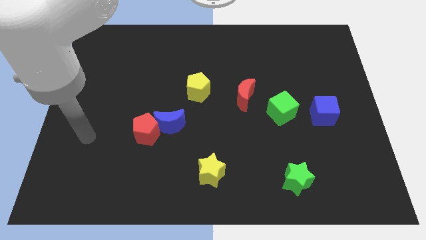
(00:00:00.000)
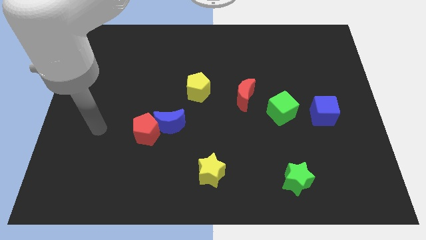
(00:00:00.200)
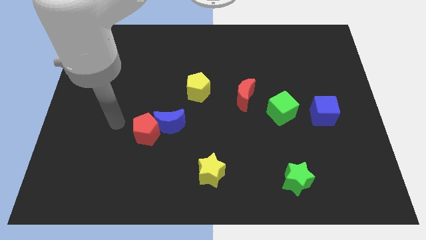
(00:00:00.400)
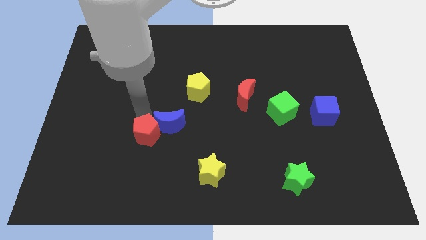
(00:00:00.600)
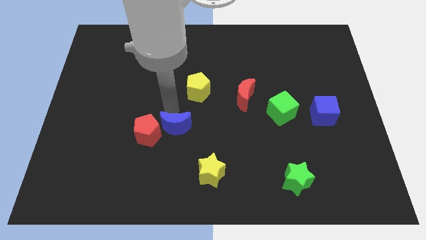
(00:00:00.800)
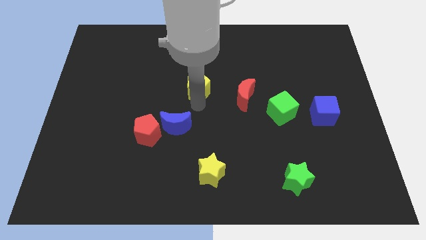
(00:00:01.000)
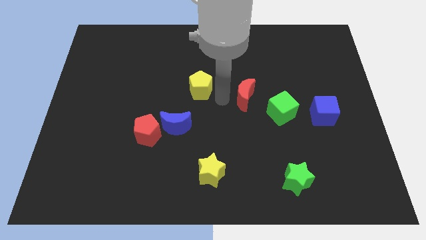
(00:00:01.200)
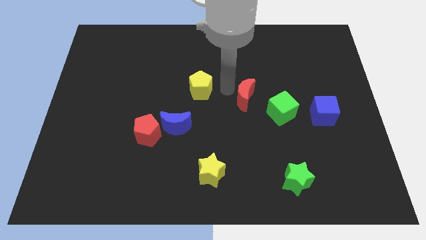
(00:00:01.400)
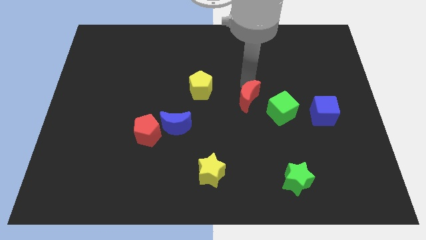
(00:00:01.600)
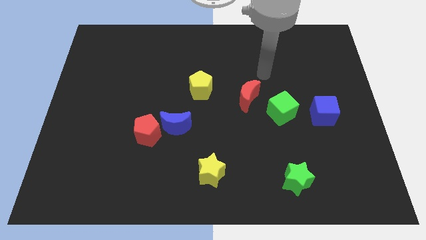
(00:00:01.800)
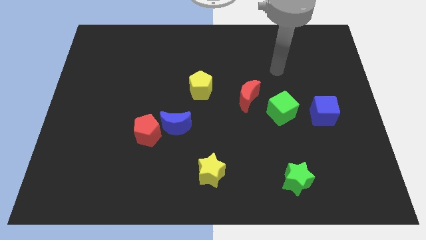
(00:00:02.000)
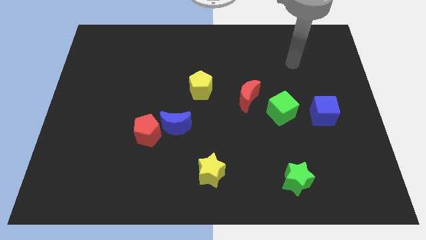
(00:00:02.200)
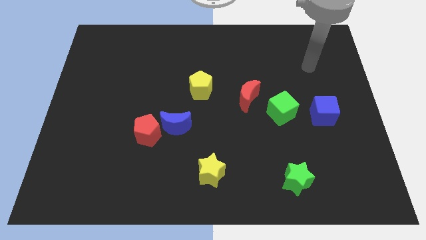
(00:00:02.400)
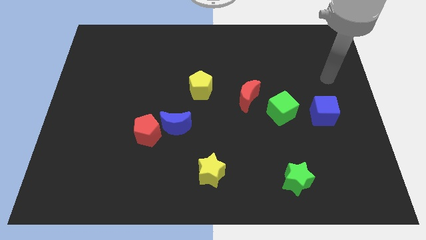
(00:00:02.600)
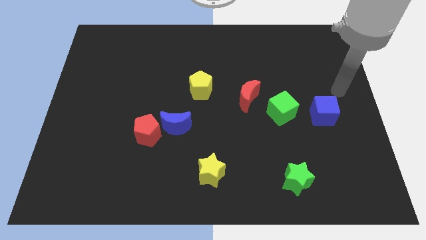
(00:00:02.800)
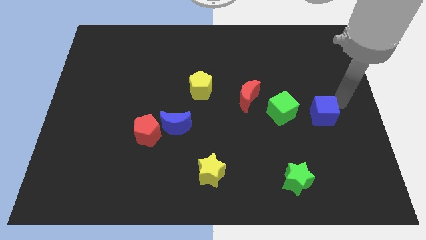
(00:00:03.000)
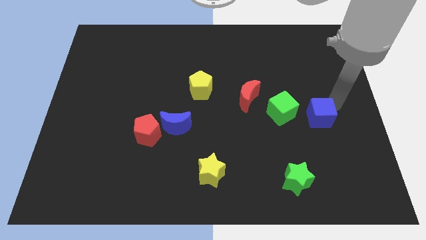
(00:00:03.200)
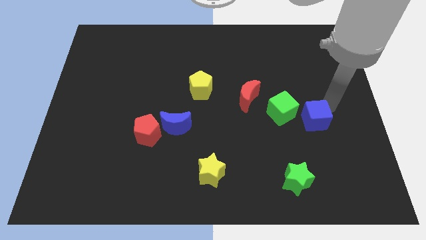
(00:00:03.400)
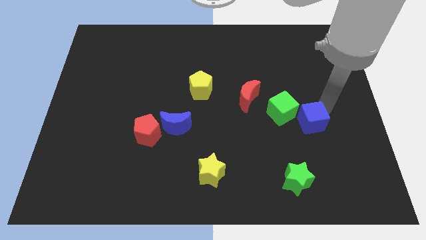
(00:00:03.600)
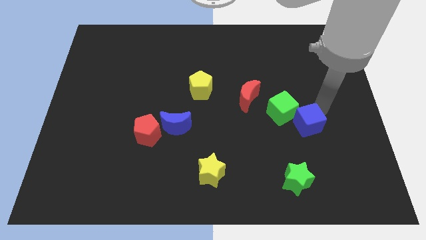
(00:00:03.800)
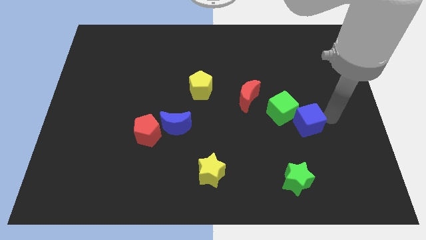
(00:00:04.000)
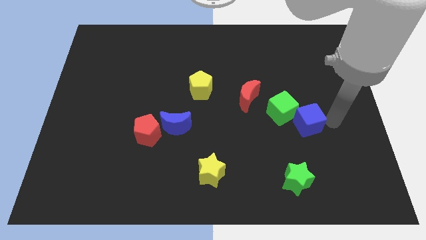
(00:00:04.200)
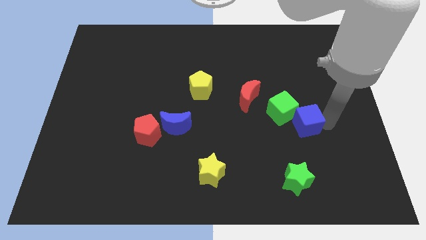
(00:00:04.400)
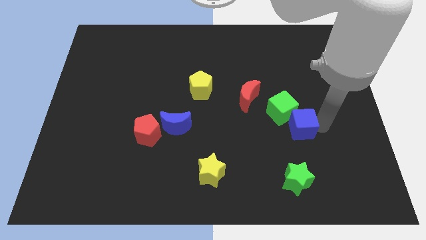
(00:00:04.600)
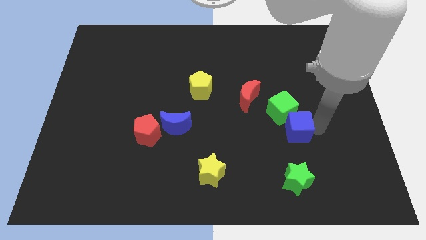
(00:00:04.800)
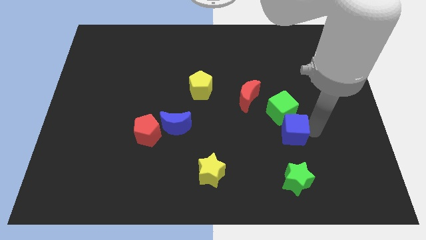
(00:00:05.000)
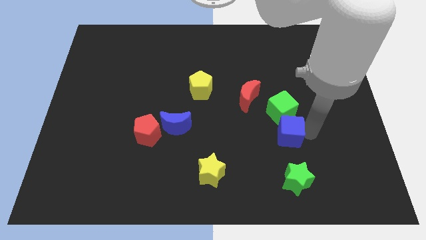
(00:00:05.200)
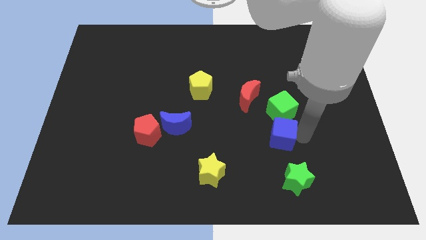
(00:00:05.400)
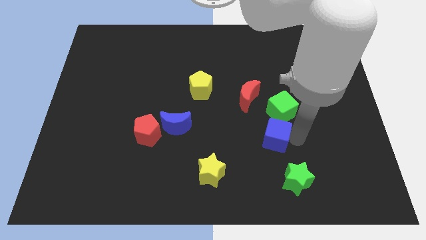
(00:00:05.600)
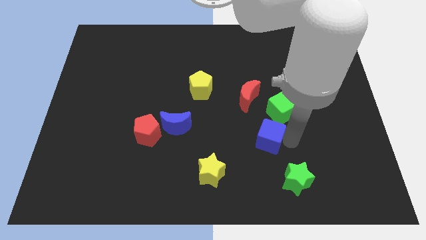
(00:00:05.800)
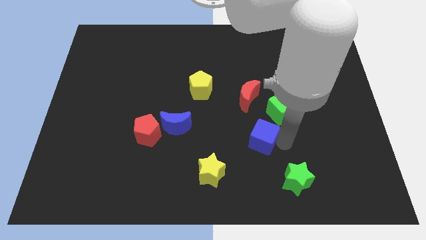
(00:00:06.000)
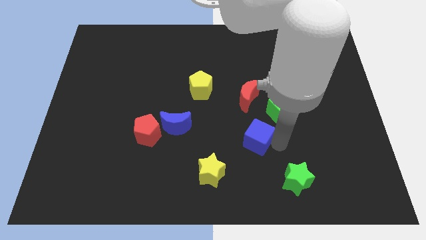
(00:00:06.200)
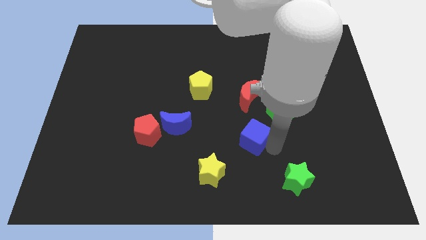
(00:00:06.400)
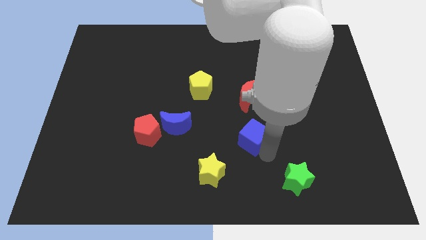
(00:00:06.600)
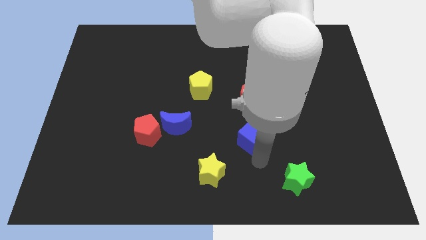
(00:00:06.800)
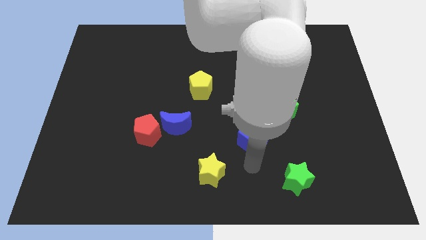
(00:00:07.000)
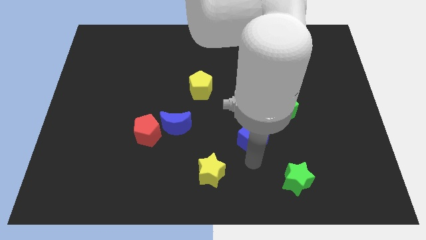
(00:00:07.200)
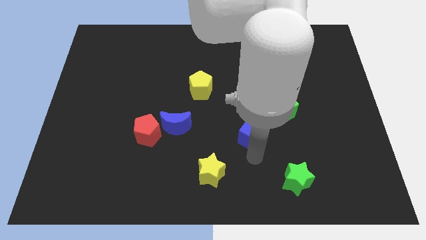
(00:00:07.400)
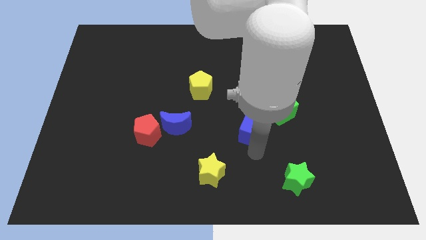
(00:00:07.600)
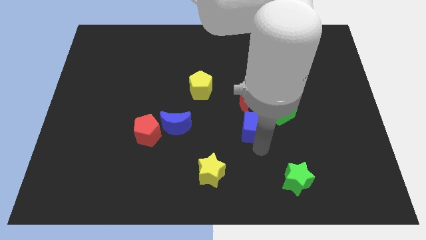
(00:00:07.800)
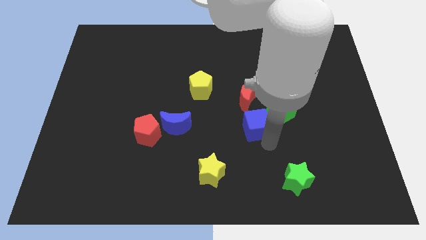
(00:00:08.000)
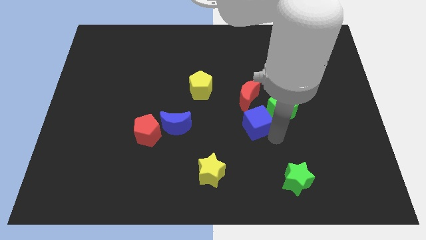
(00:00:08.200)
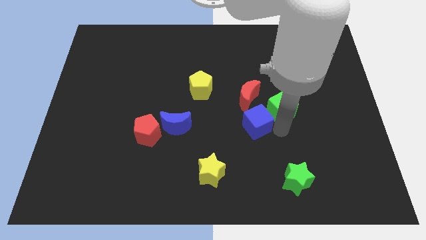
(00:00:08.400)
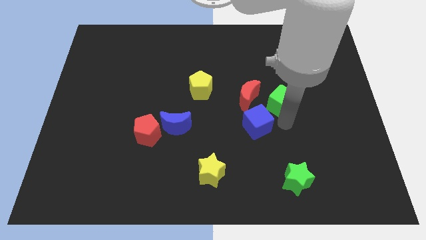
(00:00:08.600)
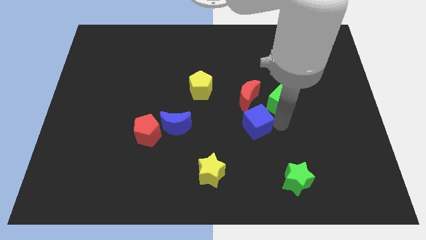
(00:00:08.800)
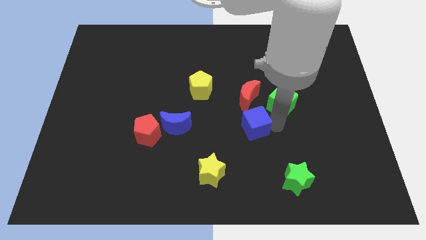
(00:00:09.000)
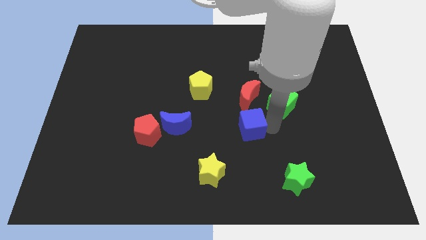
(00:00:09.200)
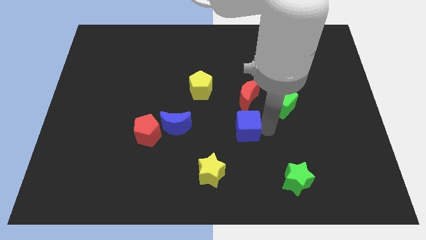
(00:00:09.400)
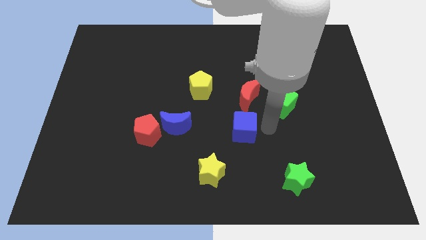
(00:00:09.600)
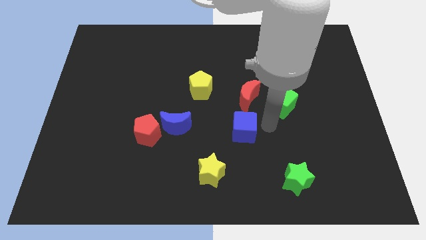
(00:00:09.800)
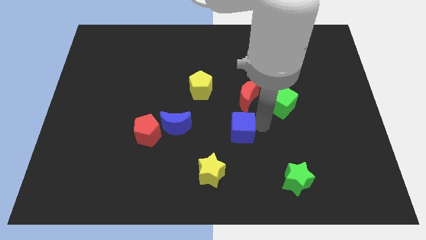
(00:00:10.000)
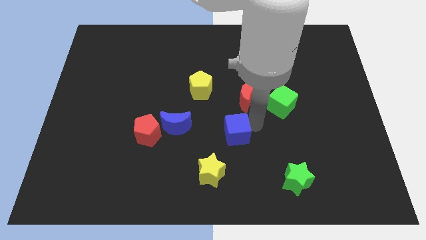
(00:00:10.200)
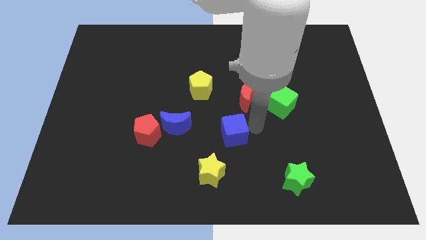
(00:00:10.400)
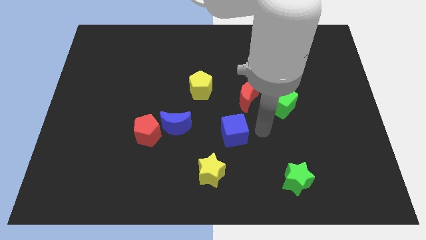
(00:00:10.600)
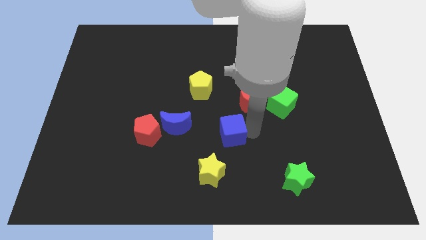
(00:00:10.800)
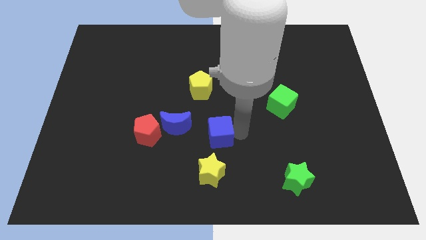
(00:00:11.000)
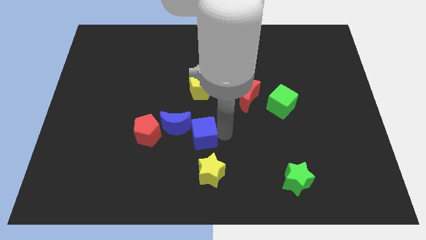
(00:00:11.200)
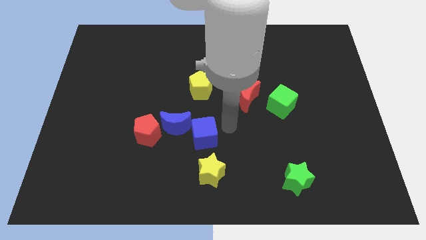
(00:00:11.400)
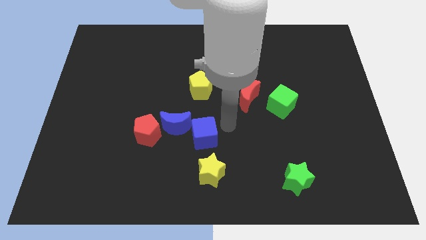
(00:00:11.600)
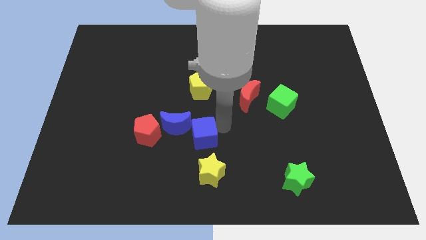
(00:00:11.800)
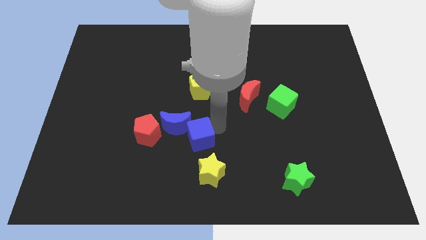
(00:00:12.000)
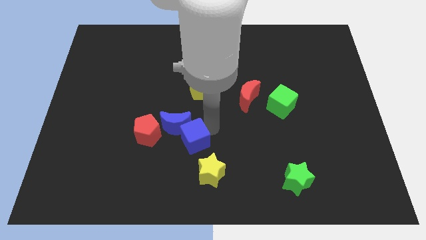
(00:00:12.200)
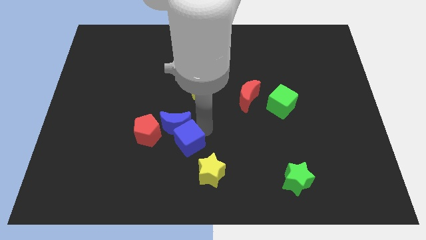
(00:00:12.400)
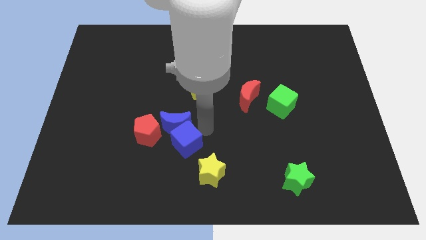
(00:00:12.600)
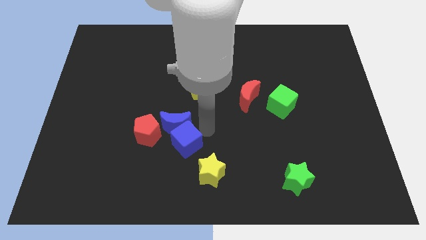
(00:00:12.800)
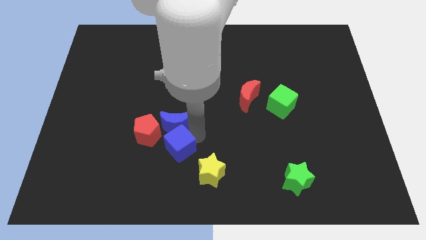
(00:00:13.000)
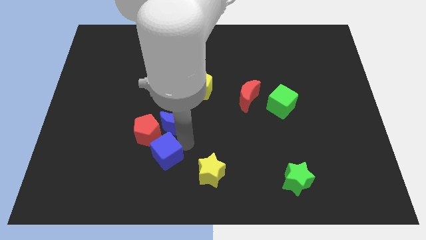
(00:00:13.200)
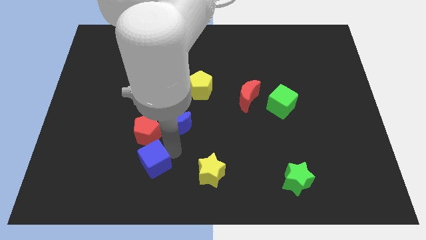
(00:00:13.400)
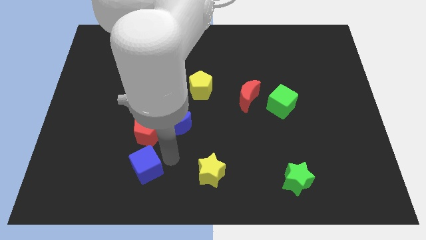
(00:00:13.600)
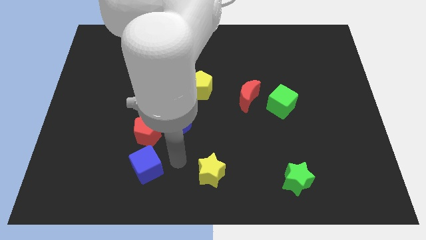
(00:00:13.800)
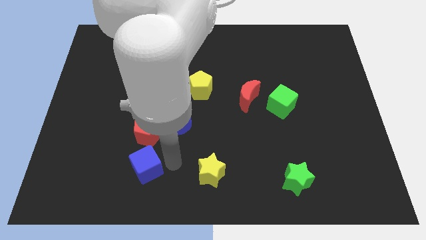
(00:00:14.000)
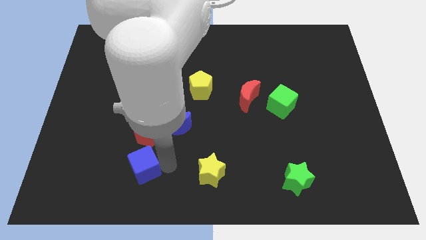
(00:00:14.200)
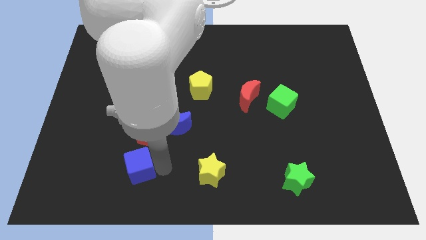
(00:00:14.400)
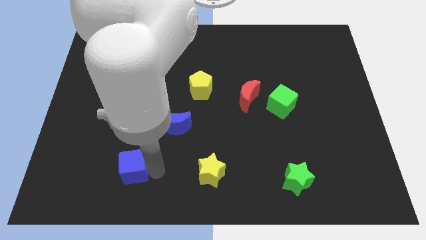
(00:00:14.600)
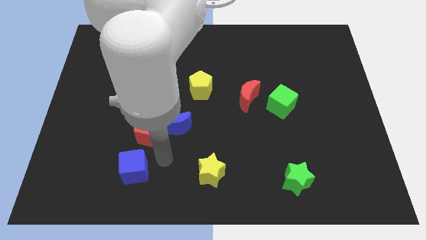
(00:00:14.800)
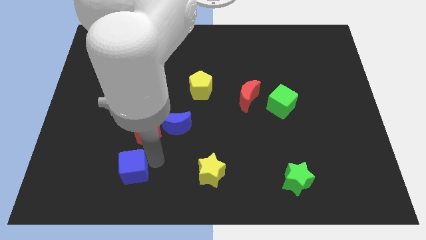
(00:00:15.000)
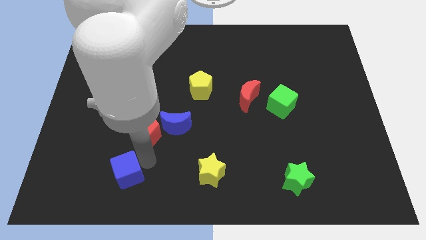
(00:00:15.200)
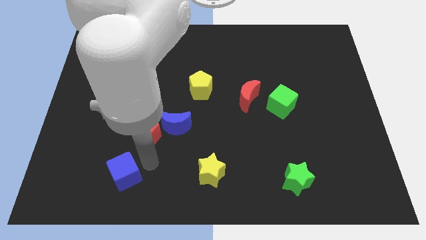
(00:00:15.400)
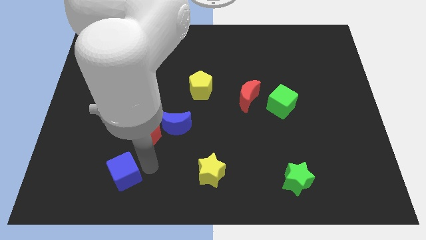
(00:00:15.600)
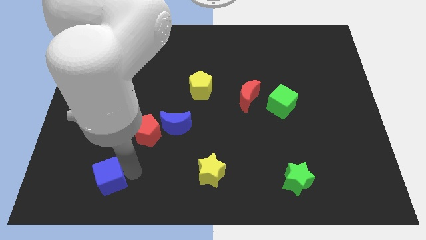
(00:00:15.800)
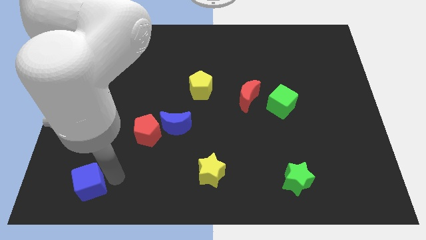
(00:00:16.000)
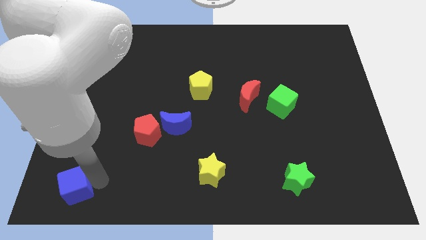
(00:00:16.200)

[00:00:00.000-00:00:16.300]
move the blue cube to the lower left corner
